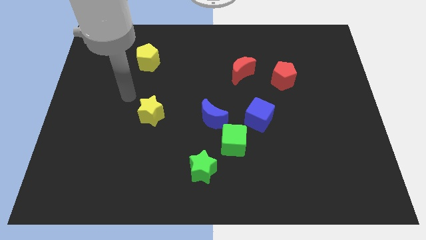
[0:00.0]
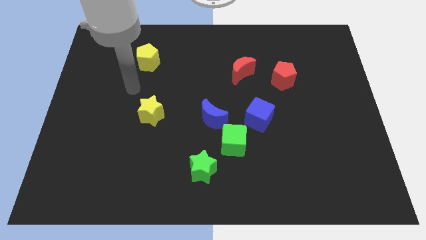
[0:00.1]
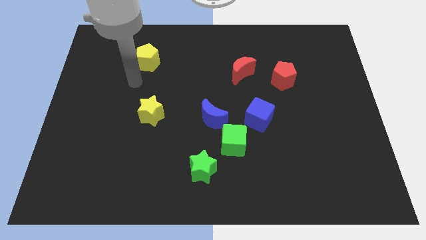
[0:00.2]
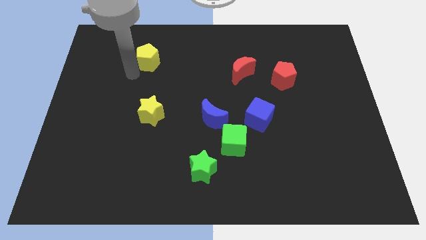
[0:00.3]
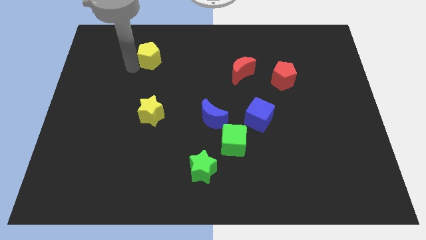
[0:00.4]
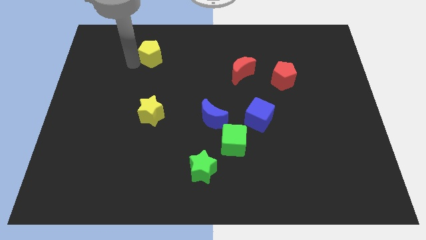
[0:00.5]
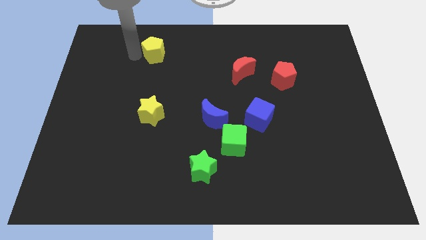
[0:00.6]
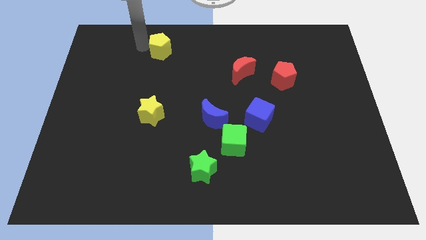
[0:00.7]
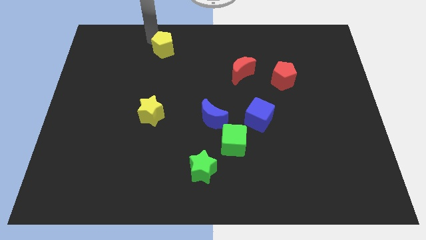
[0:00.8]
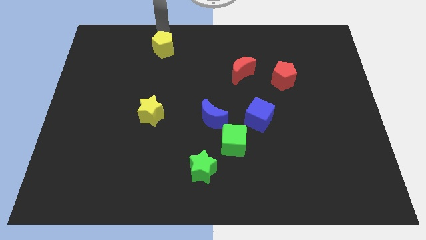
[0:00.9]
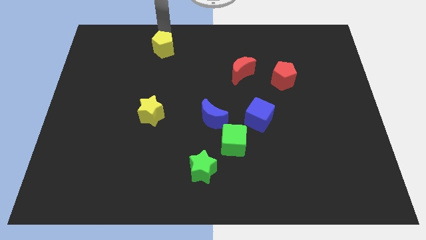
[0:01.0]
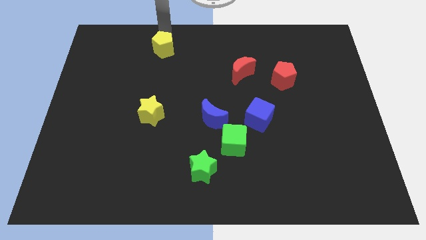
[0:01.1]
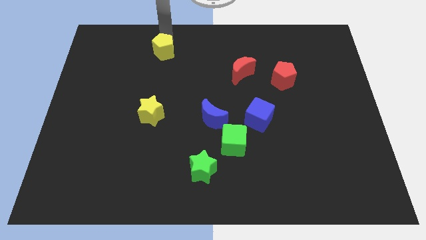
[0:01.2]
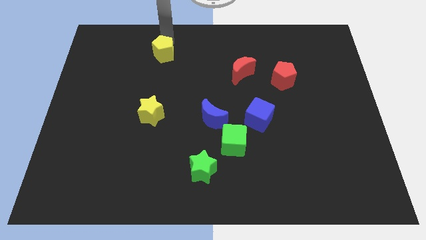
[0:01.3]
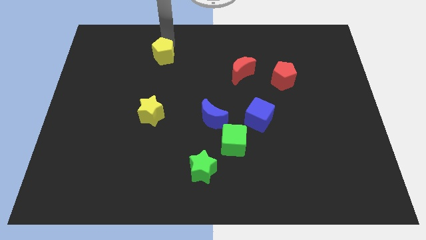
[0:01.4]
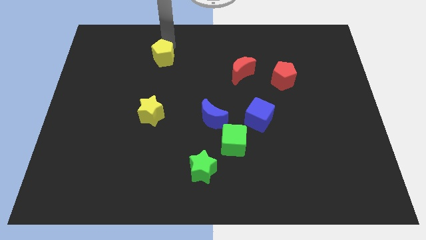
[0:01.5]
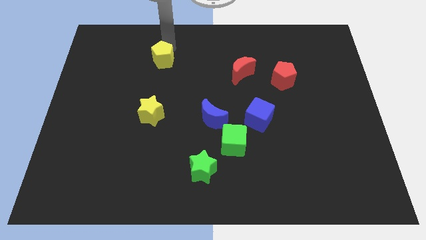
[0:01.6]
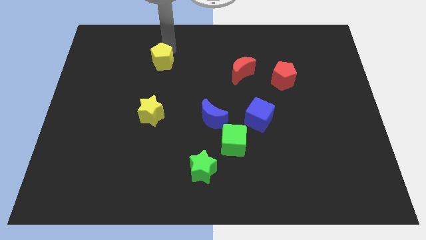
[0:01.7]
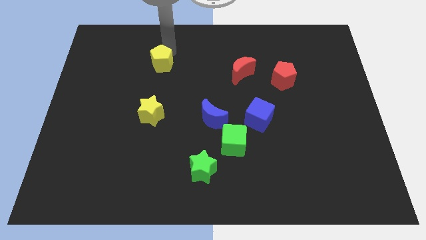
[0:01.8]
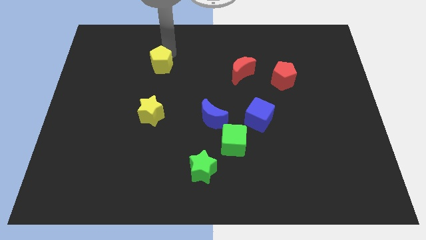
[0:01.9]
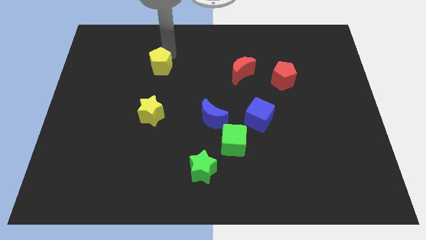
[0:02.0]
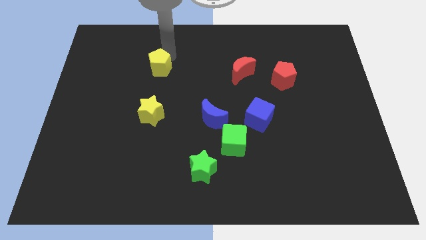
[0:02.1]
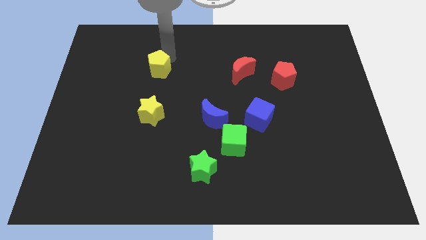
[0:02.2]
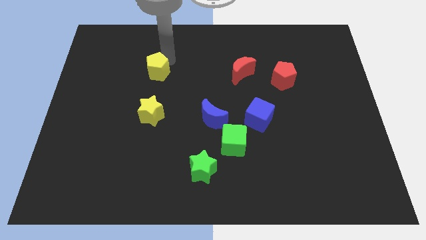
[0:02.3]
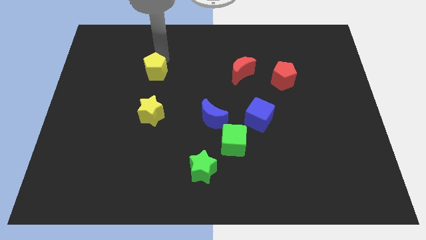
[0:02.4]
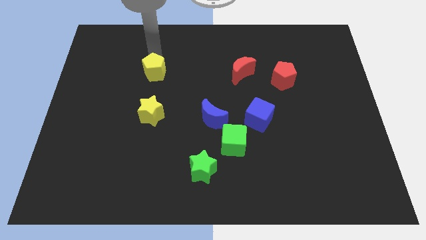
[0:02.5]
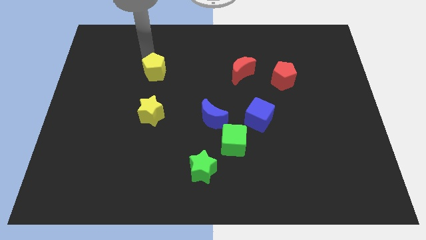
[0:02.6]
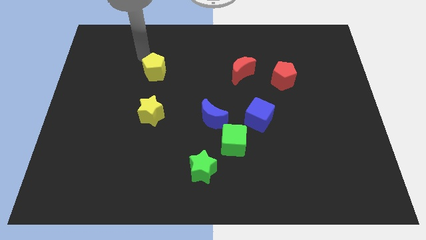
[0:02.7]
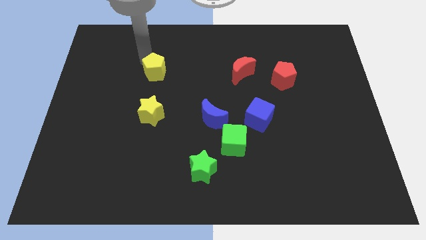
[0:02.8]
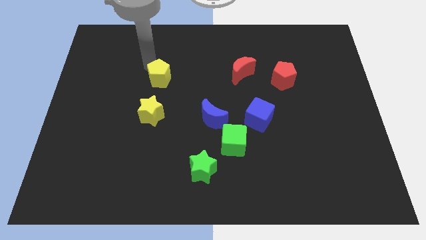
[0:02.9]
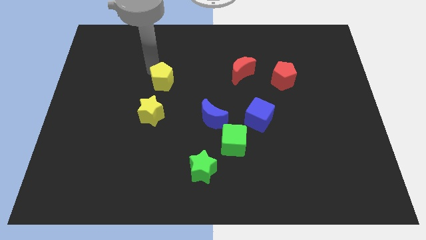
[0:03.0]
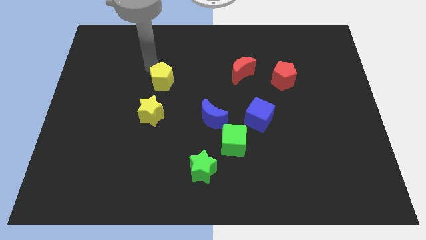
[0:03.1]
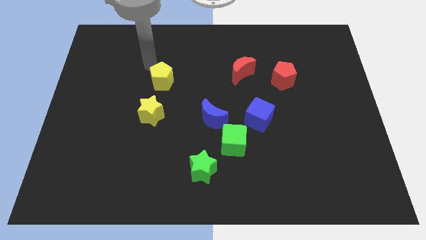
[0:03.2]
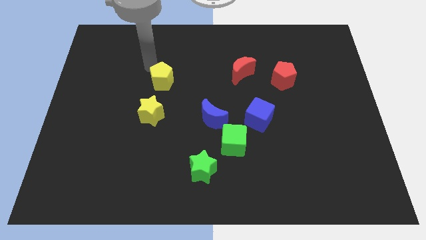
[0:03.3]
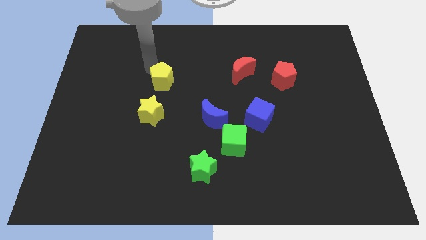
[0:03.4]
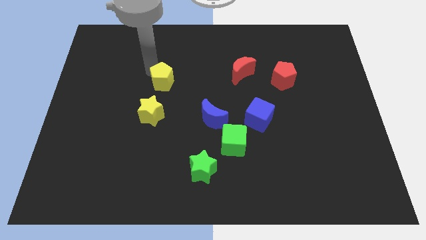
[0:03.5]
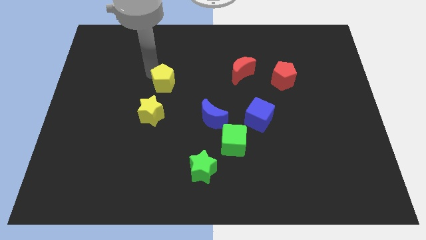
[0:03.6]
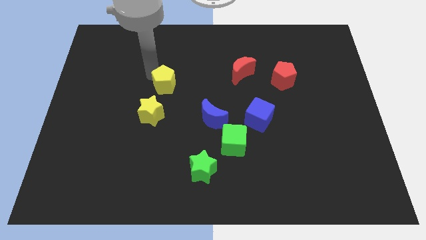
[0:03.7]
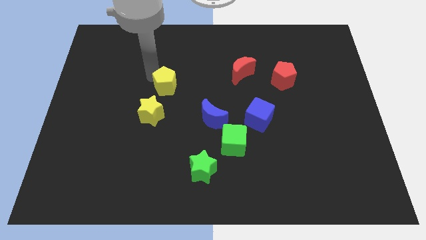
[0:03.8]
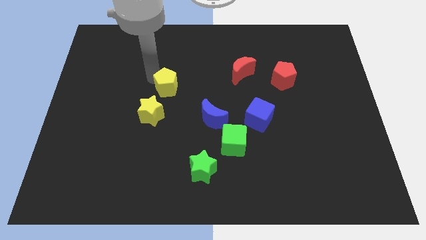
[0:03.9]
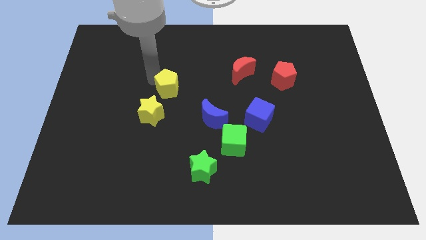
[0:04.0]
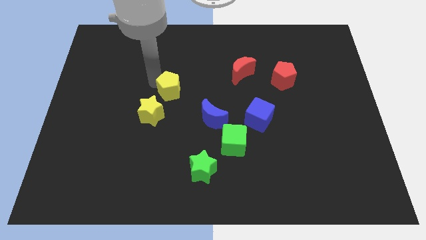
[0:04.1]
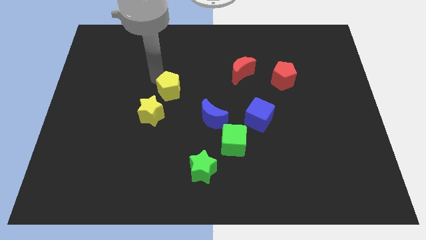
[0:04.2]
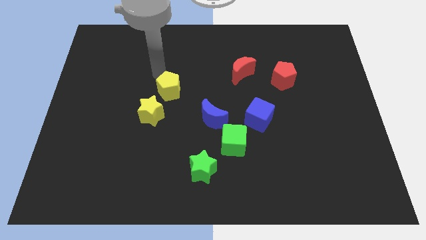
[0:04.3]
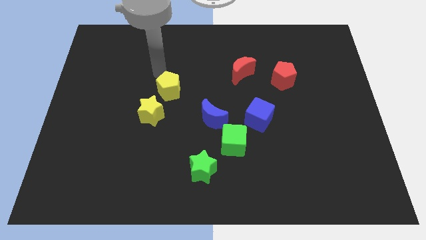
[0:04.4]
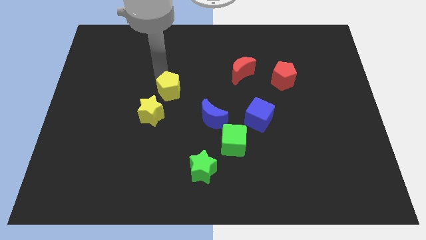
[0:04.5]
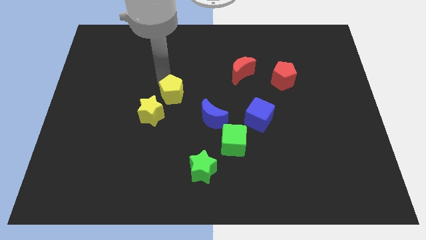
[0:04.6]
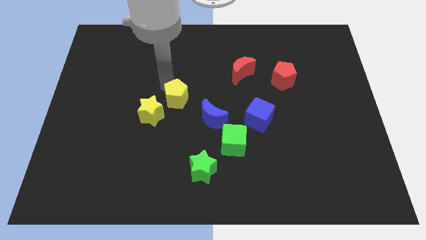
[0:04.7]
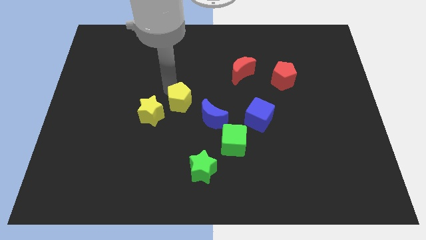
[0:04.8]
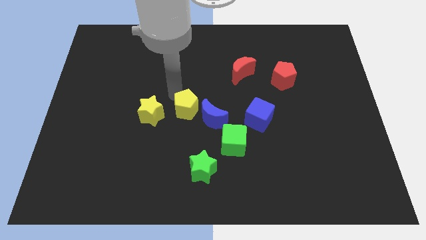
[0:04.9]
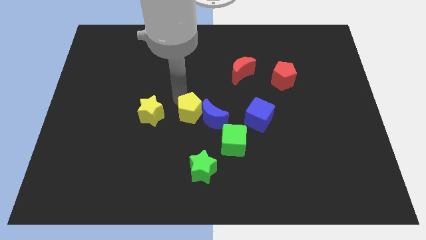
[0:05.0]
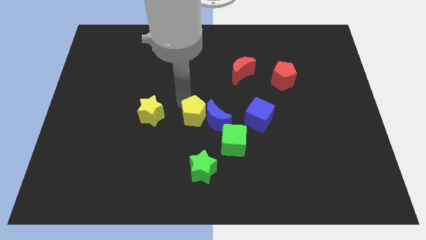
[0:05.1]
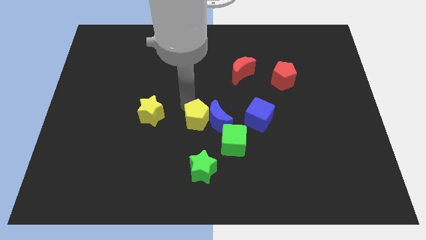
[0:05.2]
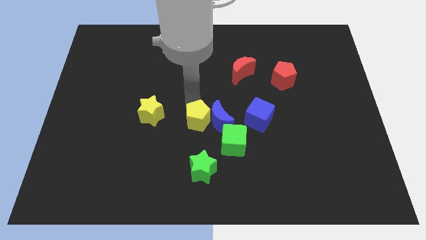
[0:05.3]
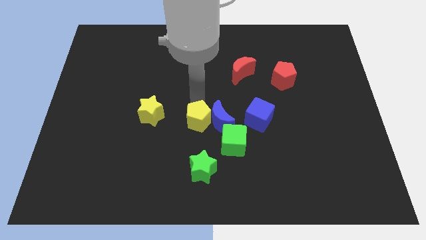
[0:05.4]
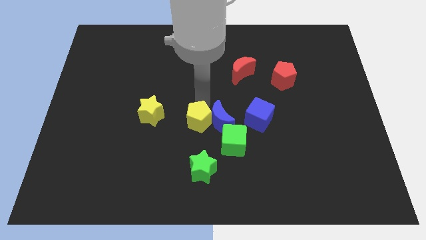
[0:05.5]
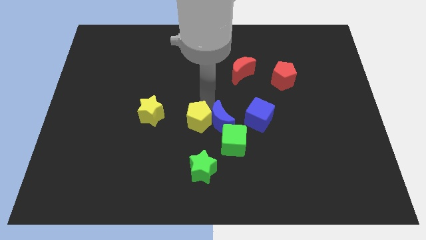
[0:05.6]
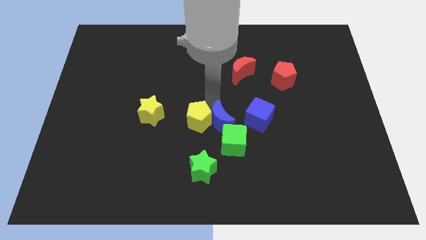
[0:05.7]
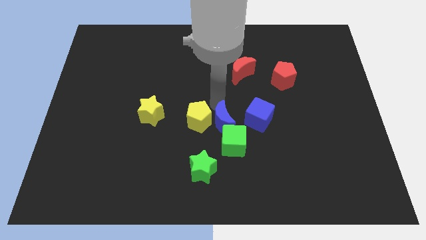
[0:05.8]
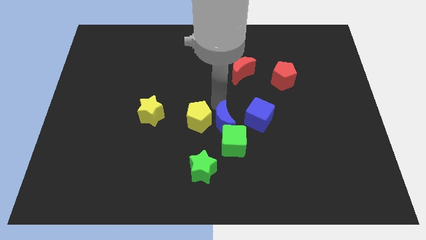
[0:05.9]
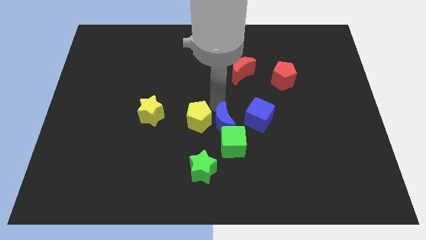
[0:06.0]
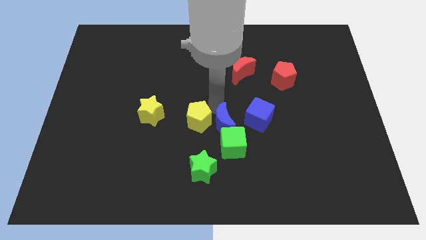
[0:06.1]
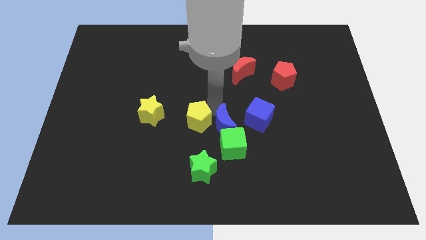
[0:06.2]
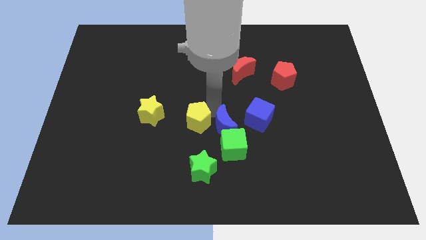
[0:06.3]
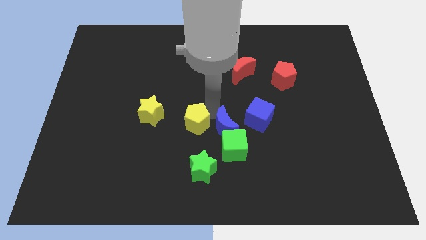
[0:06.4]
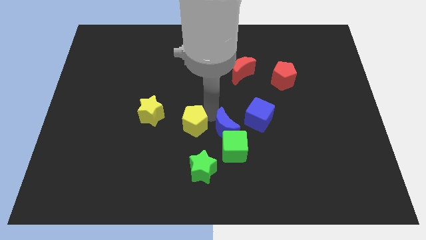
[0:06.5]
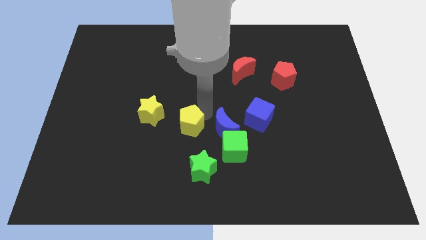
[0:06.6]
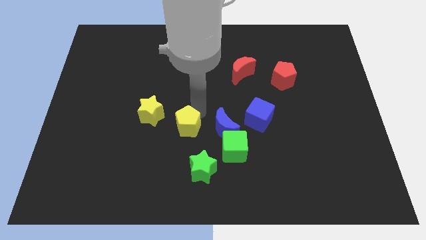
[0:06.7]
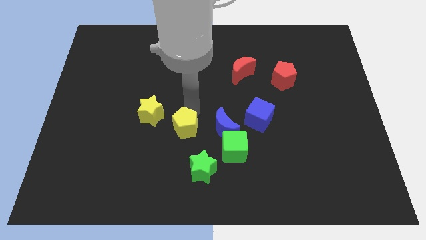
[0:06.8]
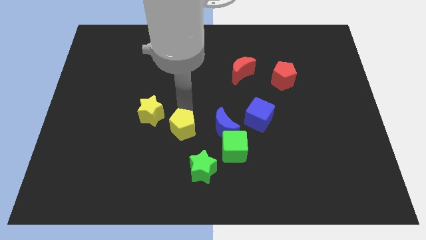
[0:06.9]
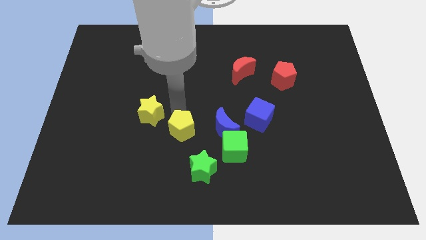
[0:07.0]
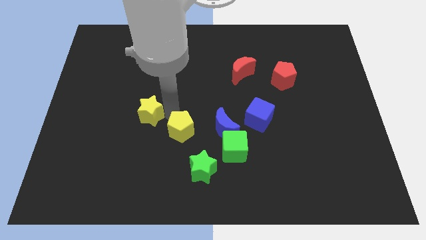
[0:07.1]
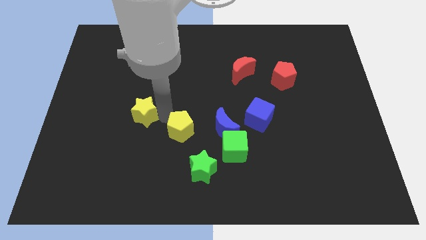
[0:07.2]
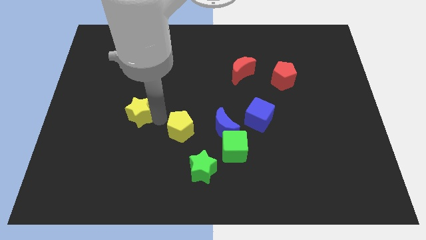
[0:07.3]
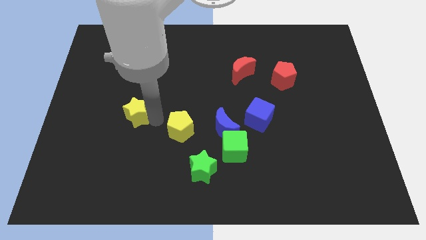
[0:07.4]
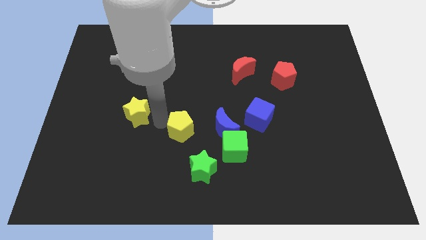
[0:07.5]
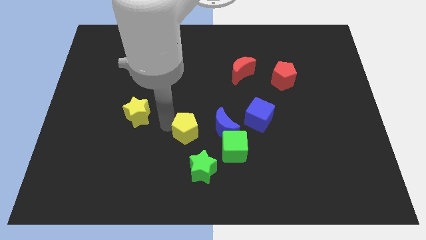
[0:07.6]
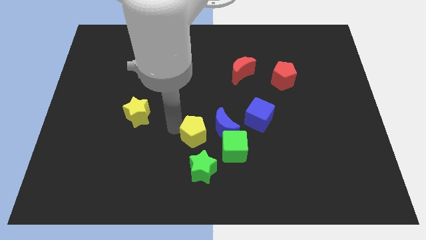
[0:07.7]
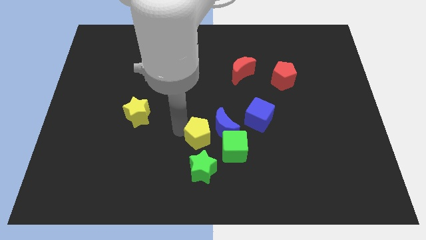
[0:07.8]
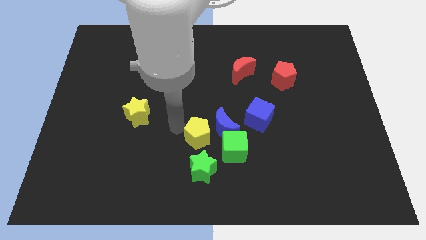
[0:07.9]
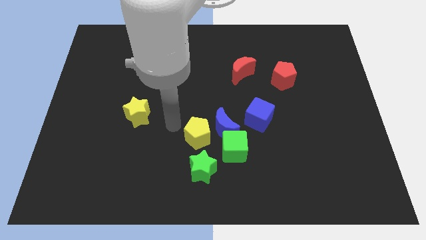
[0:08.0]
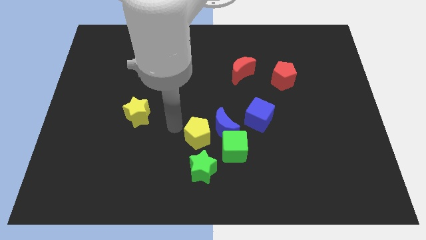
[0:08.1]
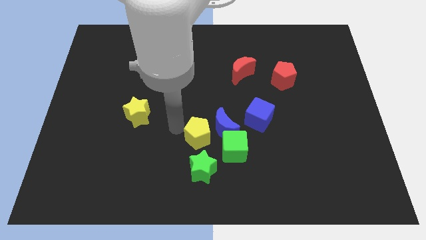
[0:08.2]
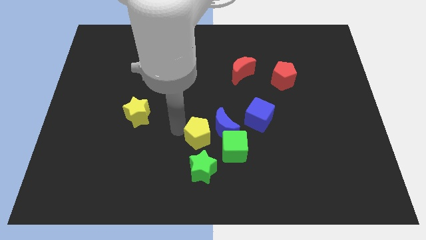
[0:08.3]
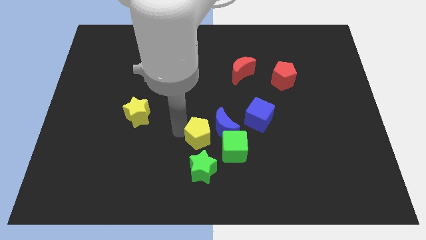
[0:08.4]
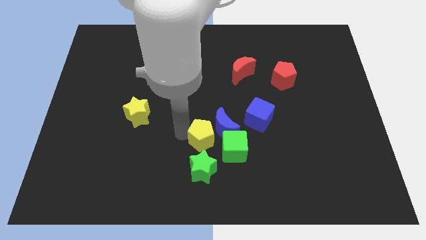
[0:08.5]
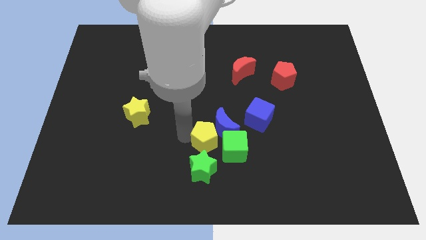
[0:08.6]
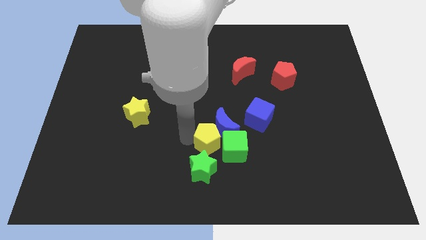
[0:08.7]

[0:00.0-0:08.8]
move the yellow pentagon close to the green cube
